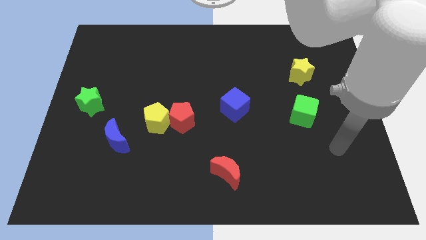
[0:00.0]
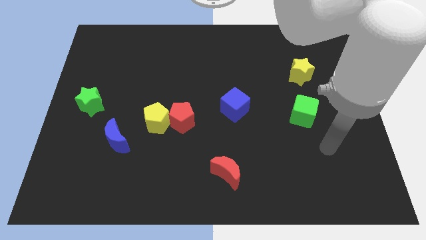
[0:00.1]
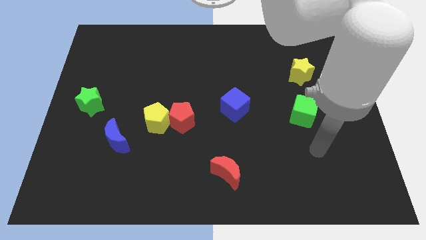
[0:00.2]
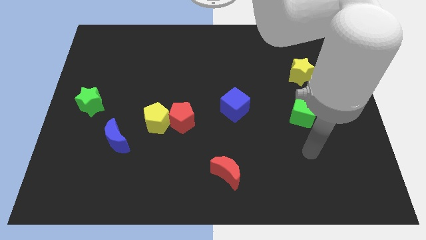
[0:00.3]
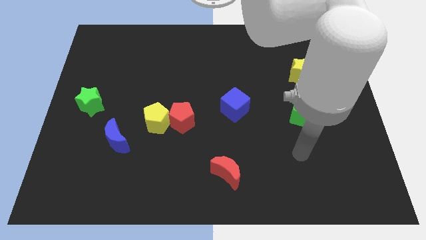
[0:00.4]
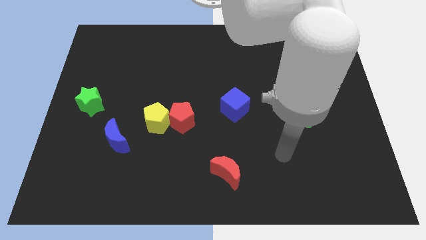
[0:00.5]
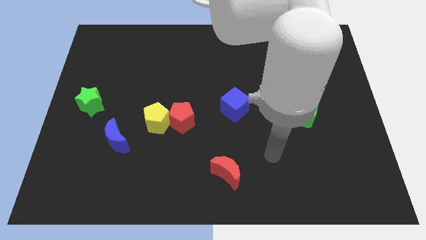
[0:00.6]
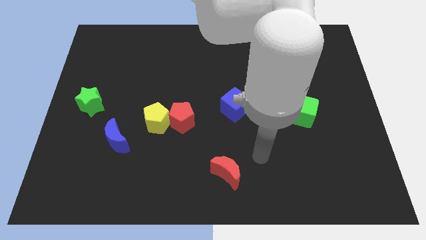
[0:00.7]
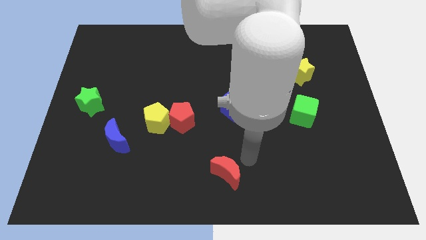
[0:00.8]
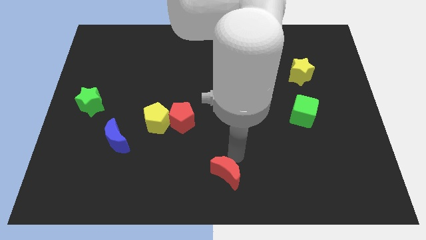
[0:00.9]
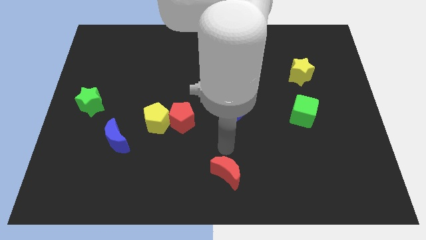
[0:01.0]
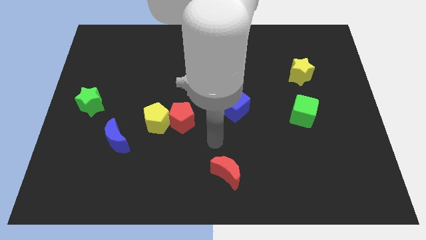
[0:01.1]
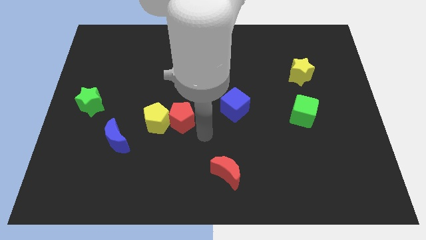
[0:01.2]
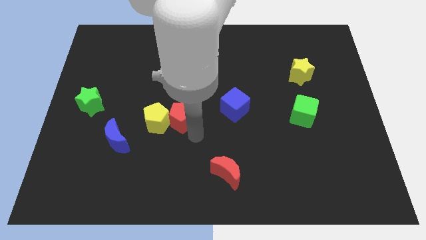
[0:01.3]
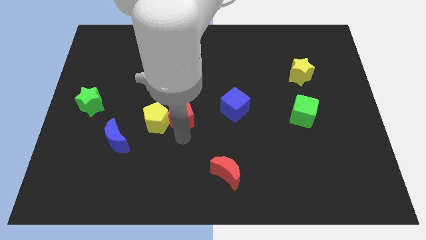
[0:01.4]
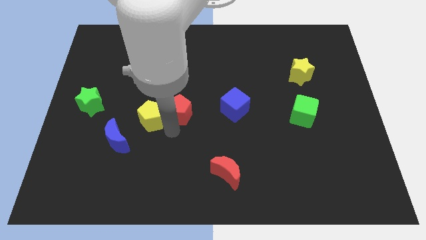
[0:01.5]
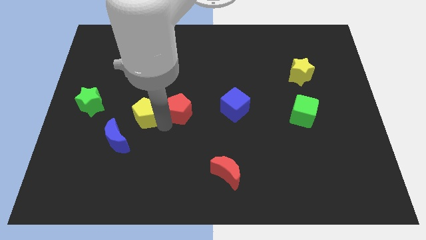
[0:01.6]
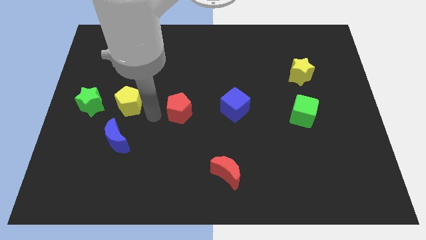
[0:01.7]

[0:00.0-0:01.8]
move the red pentagon away from the yellow pentagon

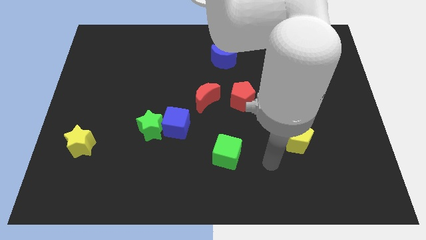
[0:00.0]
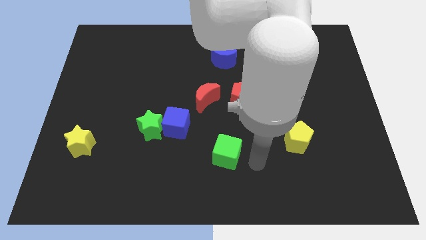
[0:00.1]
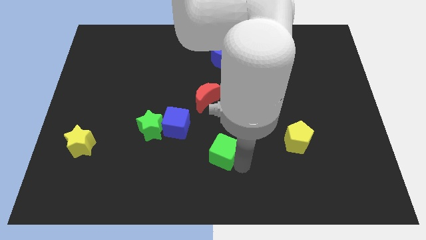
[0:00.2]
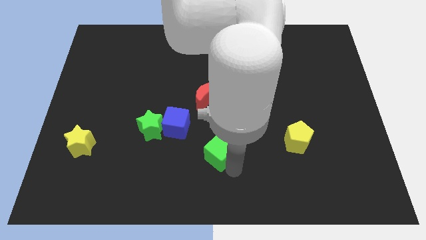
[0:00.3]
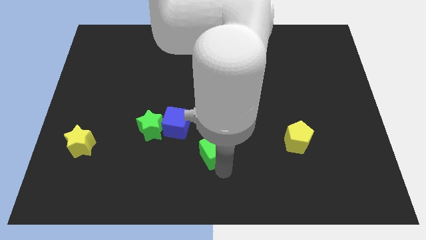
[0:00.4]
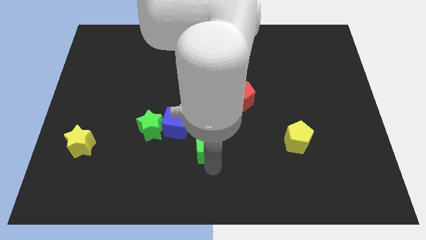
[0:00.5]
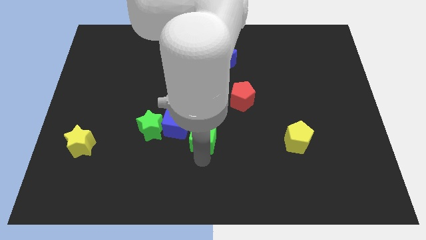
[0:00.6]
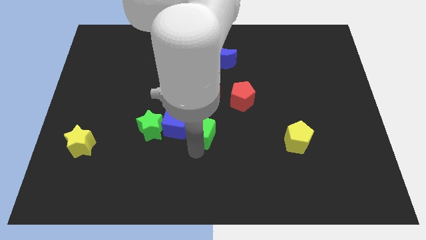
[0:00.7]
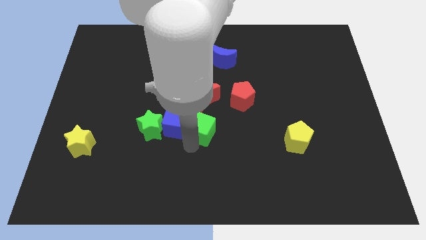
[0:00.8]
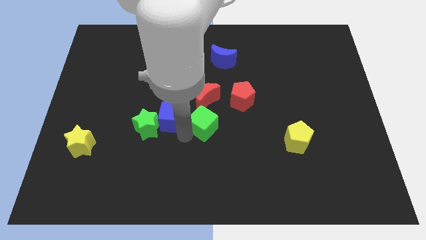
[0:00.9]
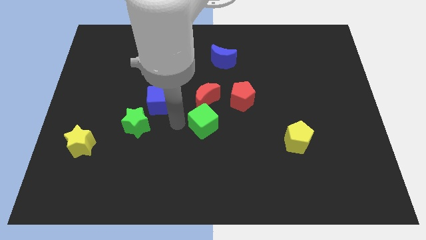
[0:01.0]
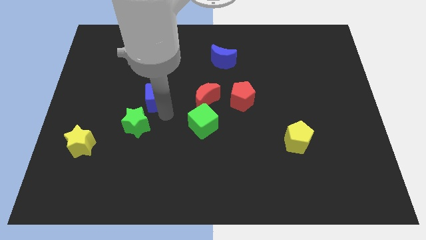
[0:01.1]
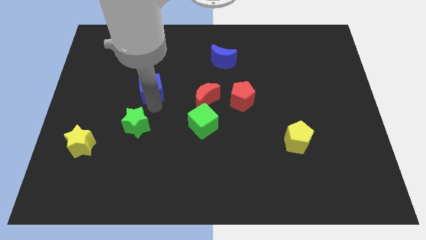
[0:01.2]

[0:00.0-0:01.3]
pull the green star apart from the blue cube

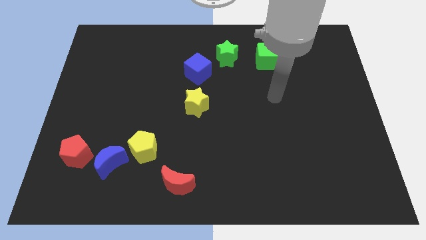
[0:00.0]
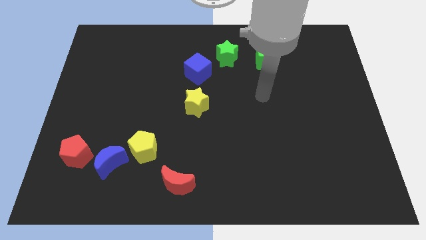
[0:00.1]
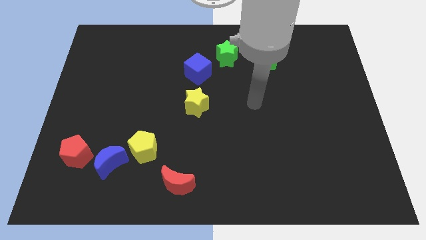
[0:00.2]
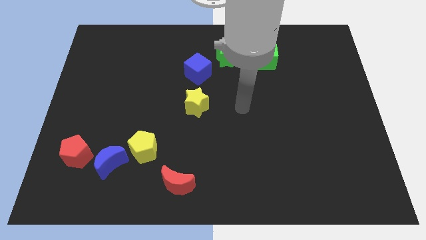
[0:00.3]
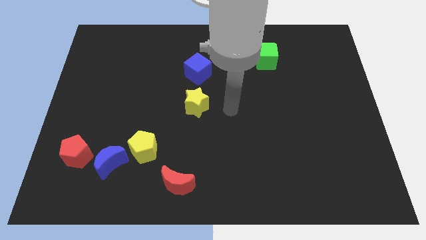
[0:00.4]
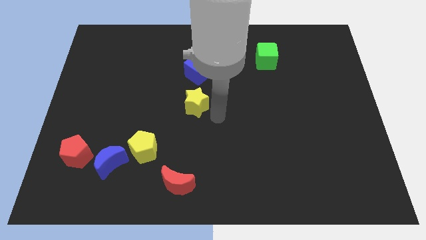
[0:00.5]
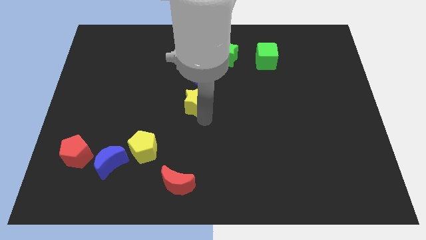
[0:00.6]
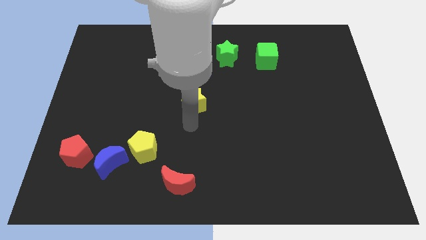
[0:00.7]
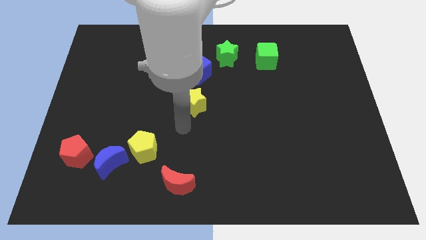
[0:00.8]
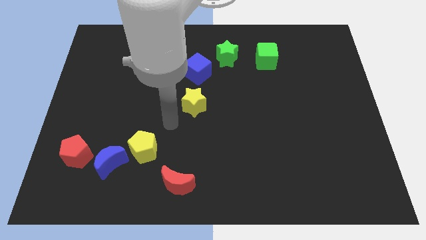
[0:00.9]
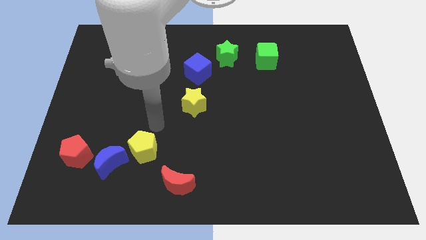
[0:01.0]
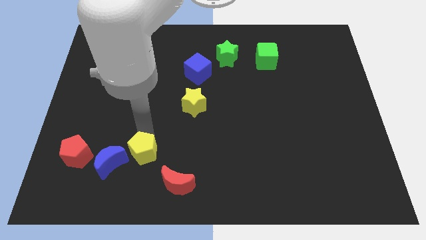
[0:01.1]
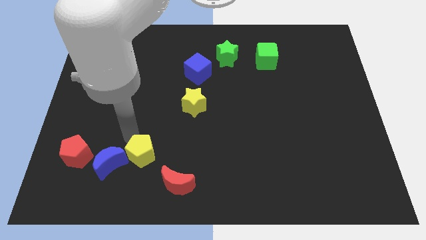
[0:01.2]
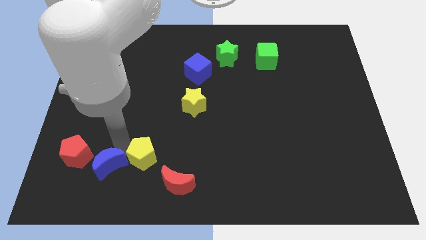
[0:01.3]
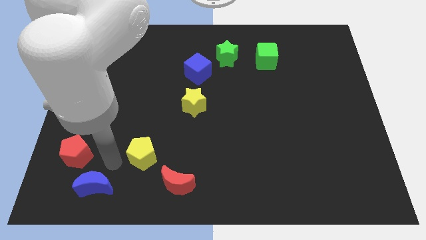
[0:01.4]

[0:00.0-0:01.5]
separate the yellow pentagon from the blue moon

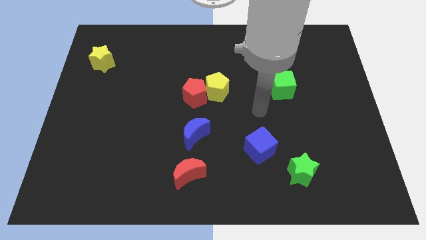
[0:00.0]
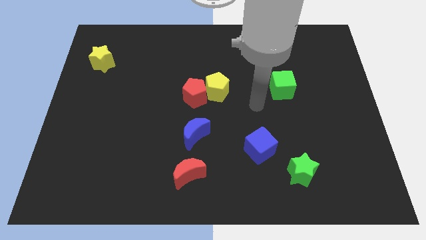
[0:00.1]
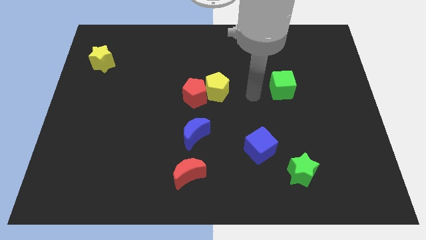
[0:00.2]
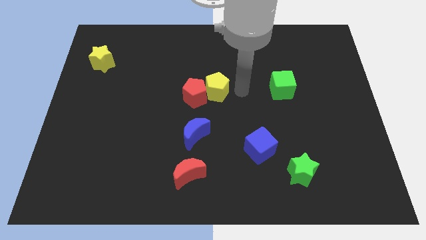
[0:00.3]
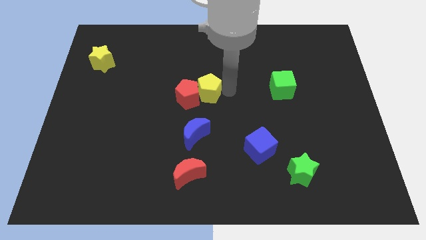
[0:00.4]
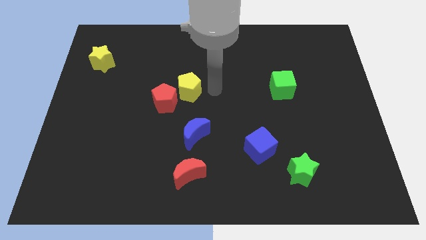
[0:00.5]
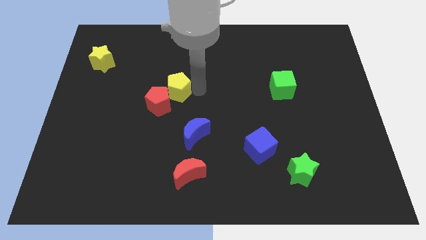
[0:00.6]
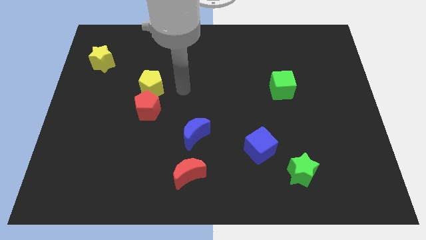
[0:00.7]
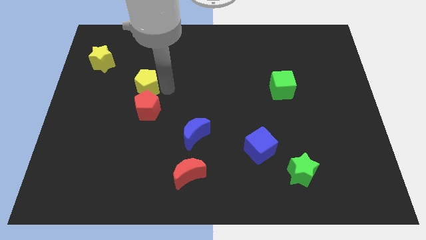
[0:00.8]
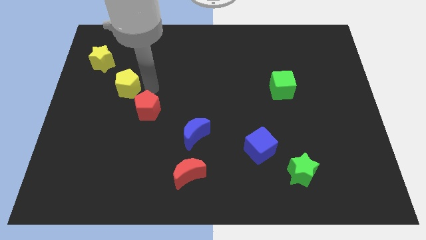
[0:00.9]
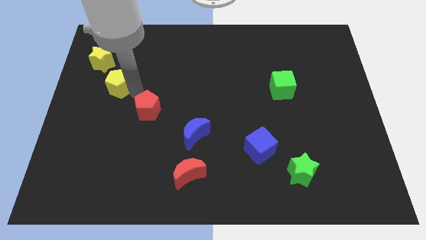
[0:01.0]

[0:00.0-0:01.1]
separate the red pentagon from the yellow pentagon

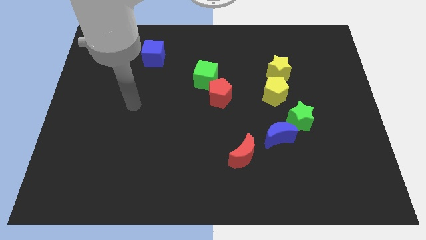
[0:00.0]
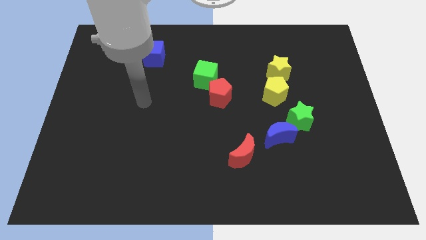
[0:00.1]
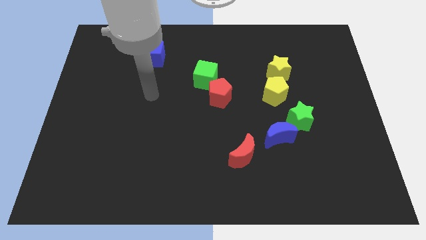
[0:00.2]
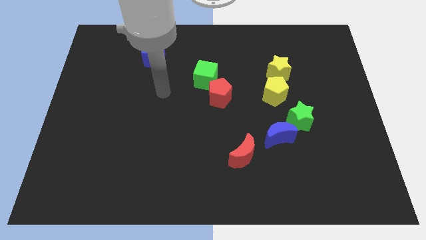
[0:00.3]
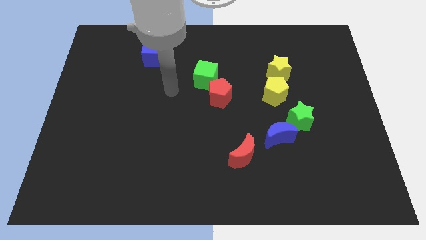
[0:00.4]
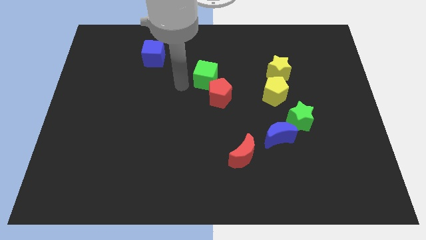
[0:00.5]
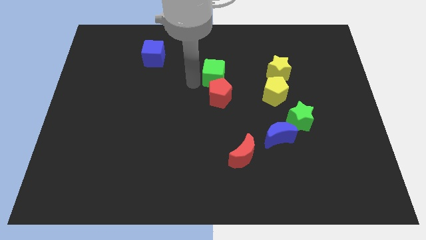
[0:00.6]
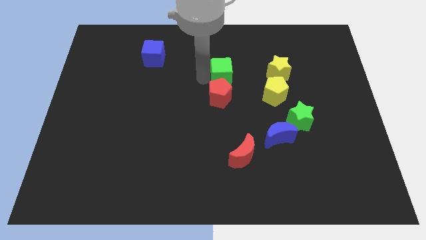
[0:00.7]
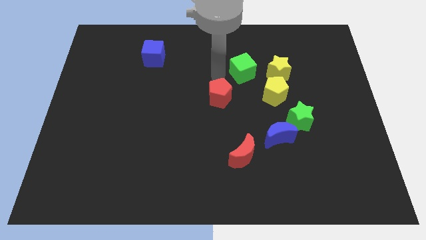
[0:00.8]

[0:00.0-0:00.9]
pull the red pentagon apart from the green cube

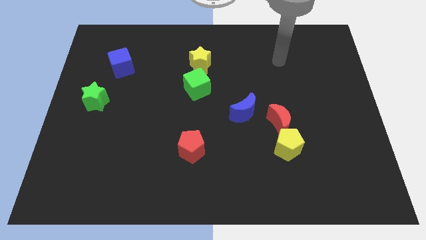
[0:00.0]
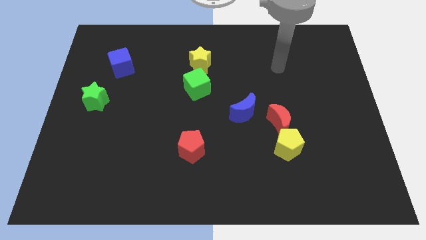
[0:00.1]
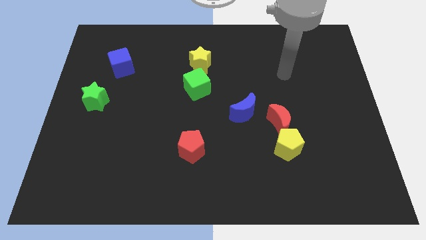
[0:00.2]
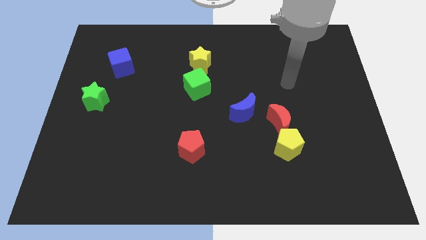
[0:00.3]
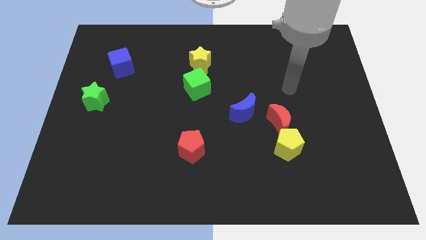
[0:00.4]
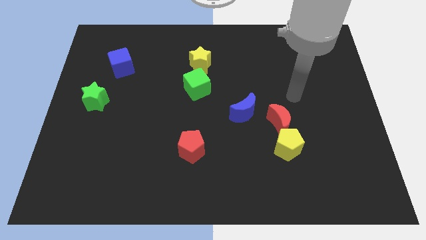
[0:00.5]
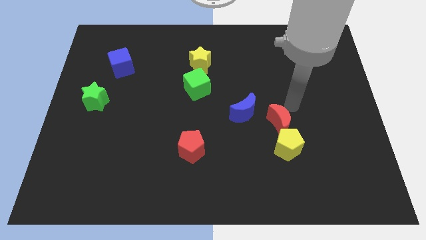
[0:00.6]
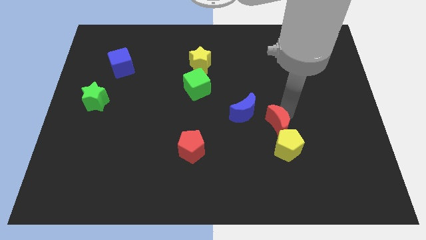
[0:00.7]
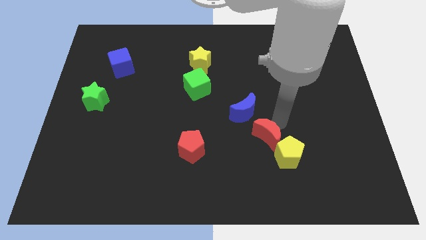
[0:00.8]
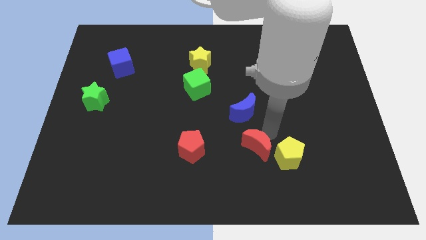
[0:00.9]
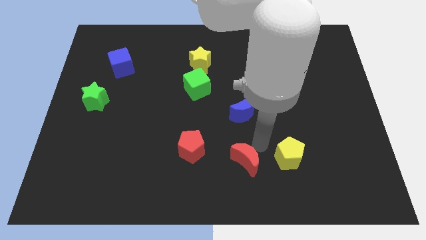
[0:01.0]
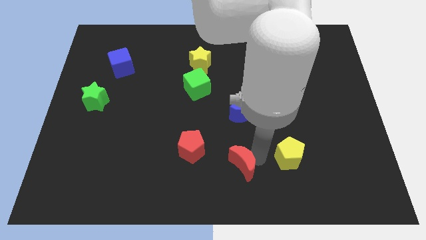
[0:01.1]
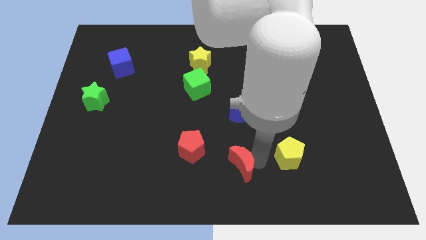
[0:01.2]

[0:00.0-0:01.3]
pull the yellow pentagon apart from the red moon

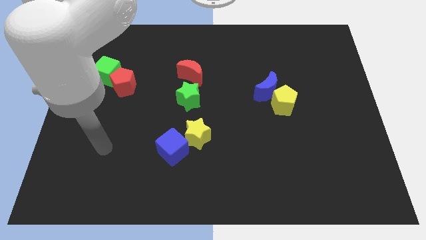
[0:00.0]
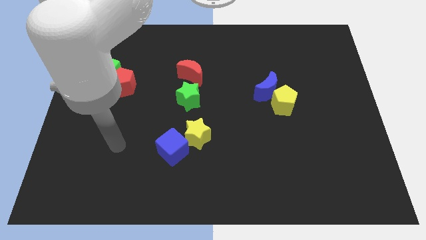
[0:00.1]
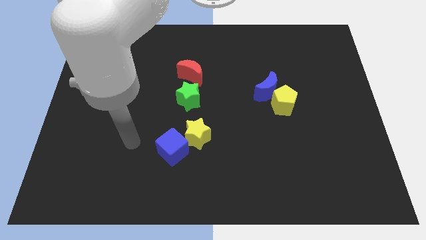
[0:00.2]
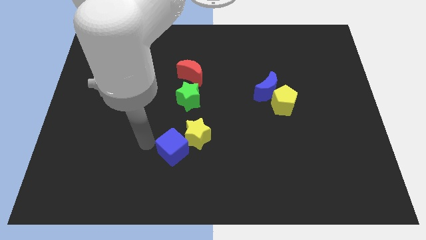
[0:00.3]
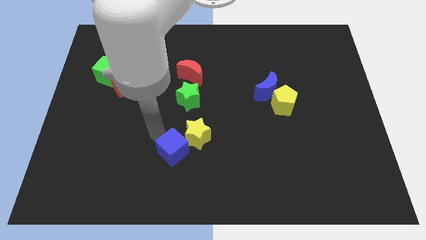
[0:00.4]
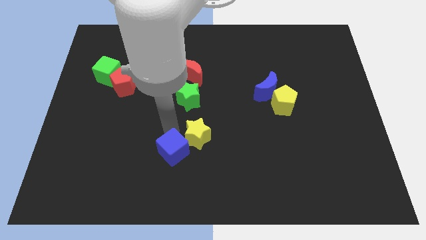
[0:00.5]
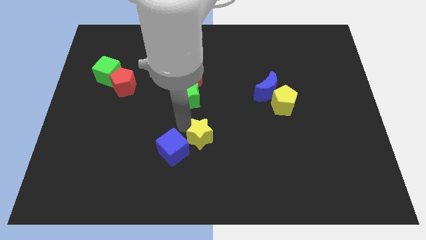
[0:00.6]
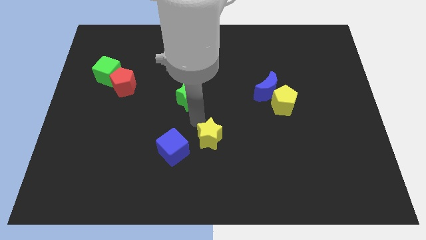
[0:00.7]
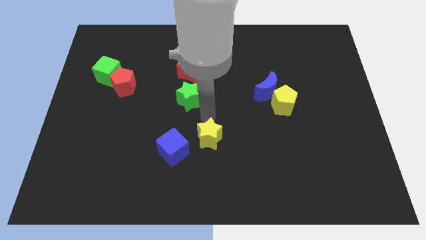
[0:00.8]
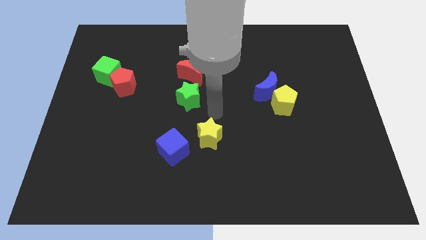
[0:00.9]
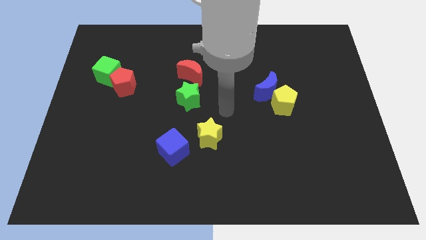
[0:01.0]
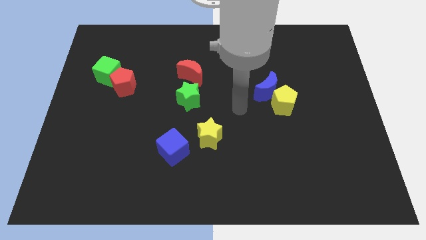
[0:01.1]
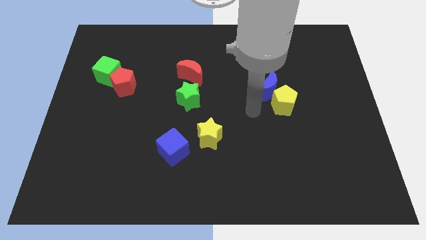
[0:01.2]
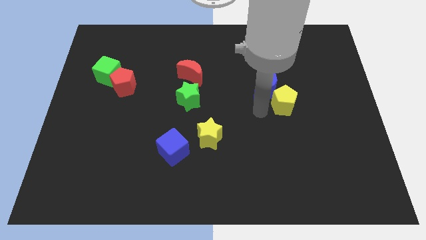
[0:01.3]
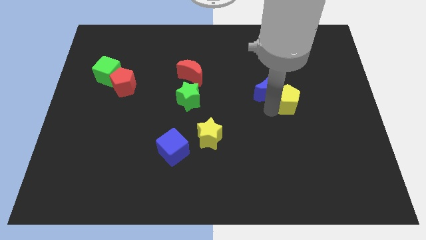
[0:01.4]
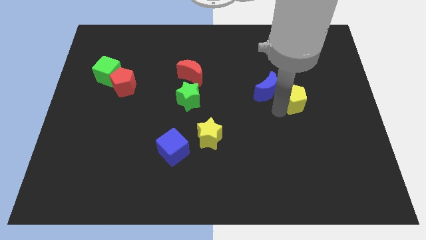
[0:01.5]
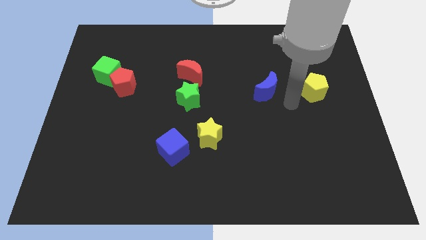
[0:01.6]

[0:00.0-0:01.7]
pull the blue moon apart from the yellow pentagon
